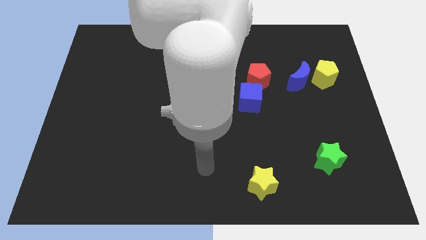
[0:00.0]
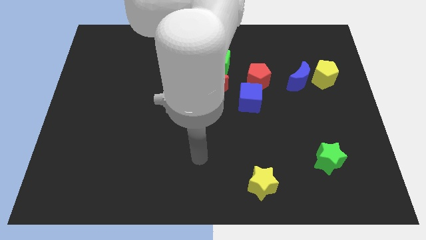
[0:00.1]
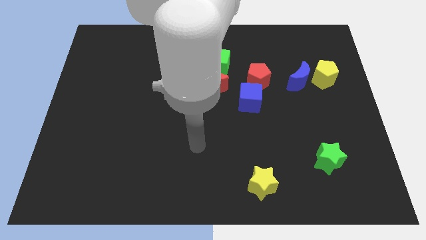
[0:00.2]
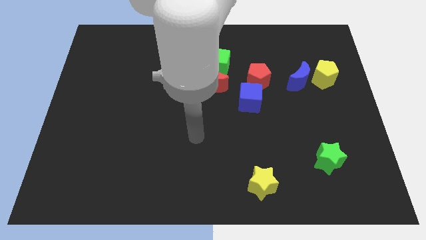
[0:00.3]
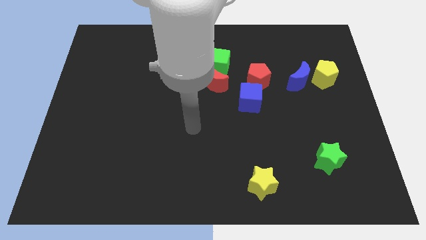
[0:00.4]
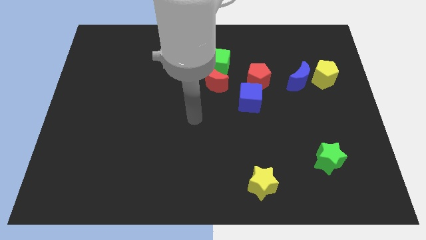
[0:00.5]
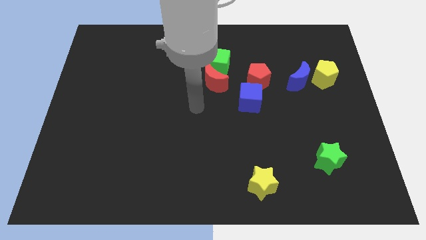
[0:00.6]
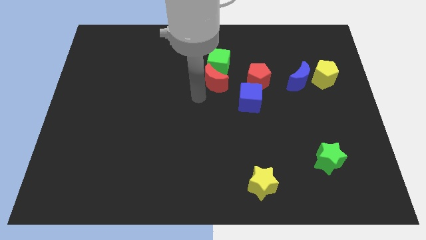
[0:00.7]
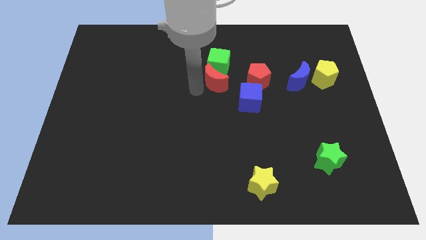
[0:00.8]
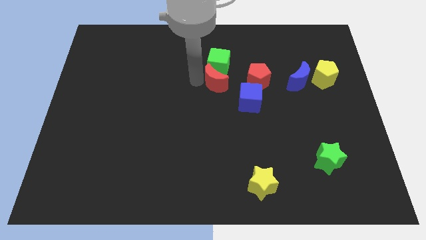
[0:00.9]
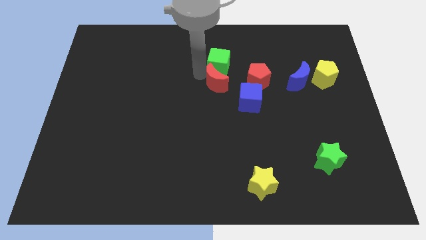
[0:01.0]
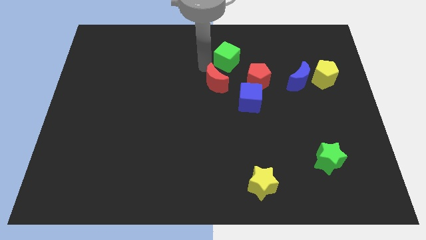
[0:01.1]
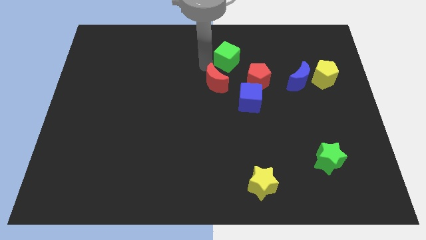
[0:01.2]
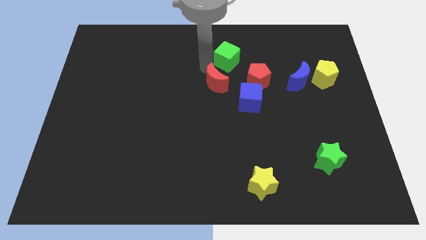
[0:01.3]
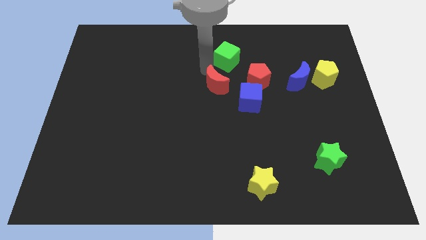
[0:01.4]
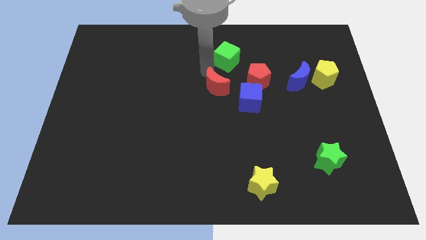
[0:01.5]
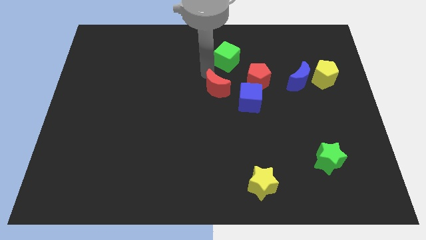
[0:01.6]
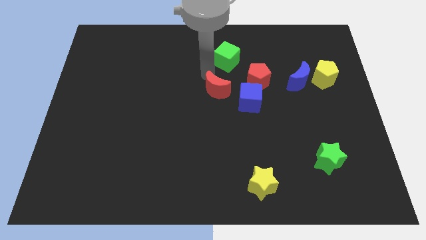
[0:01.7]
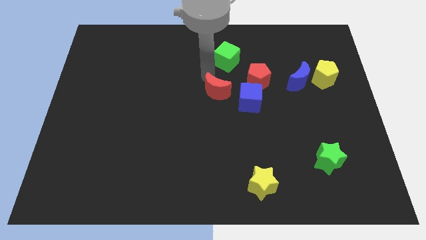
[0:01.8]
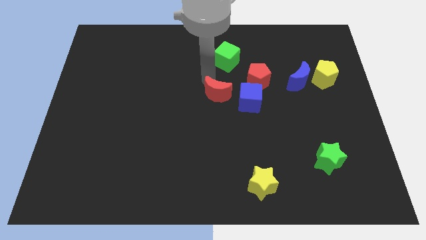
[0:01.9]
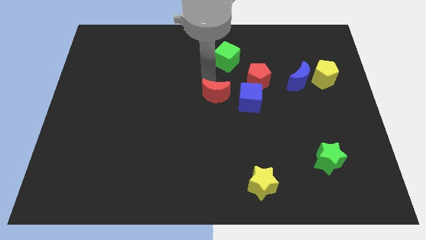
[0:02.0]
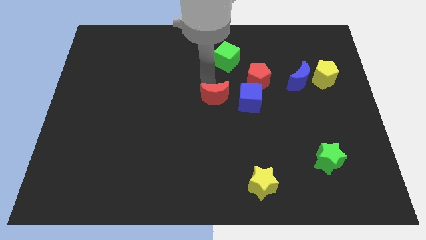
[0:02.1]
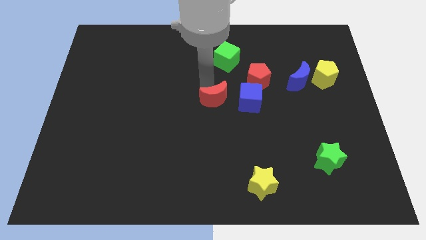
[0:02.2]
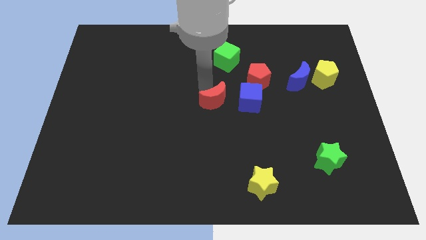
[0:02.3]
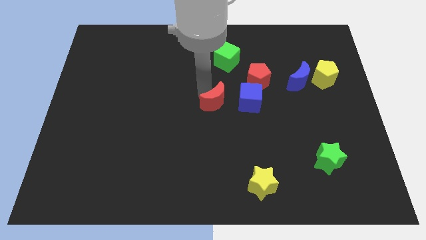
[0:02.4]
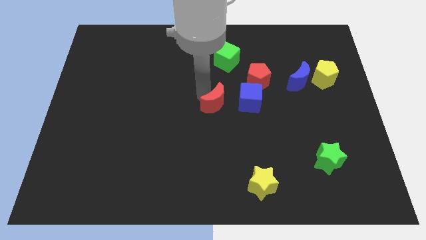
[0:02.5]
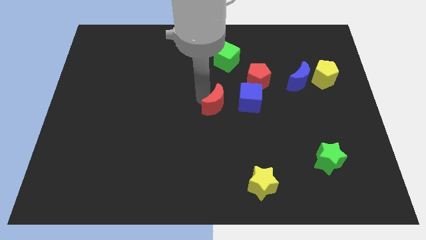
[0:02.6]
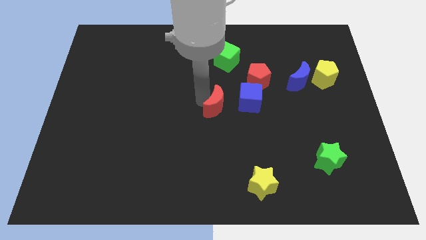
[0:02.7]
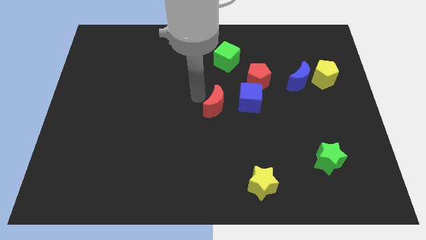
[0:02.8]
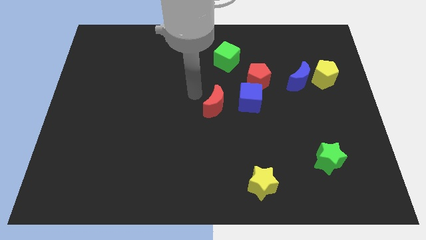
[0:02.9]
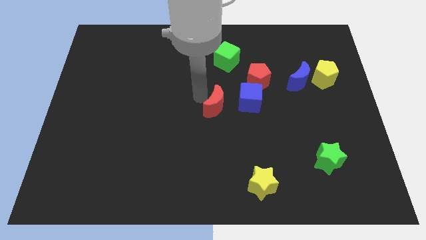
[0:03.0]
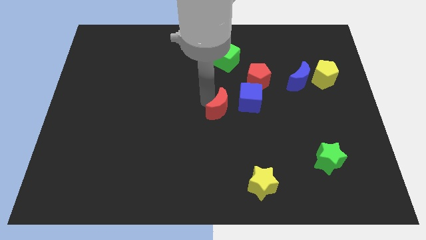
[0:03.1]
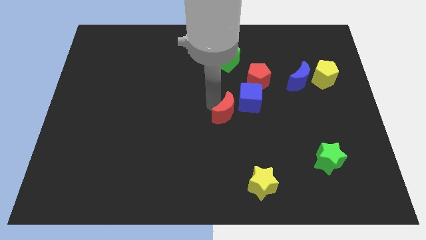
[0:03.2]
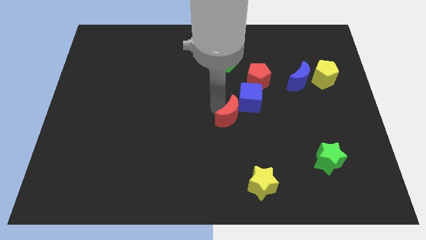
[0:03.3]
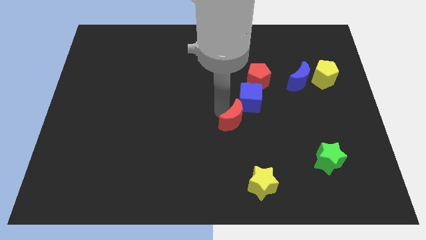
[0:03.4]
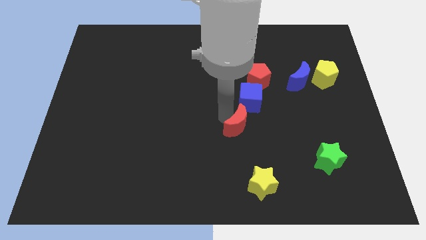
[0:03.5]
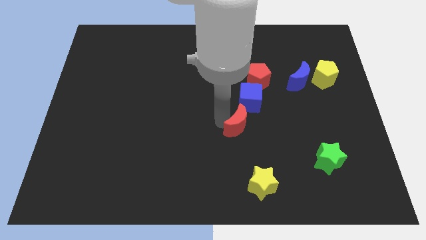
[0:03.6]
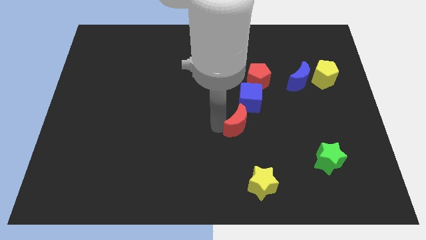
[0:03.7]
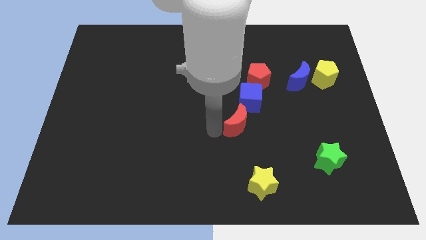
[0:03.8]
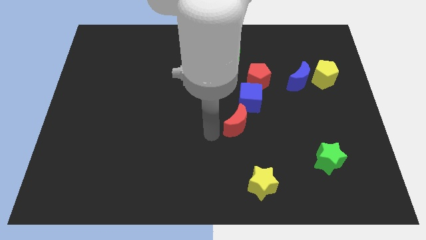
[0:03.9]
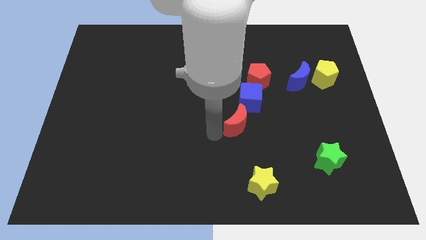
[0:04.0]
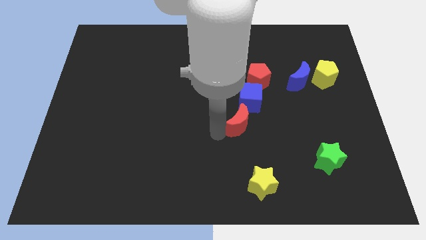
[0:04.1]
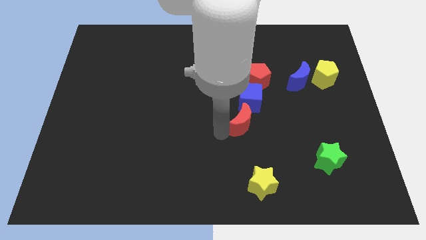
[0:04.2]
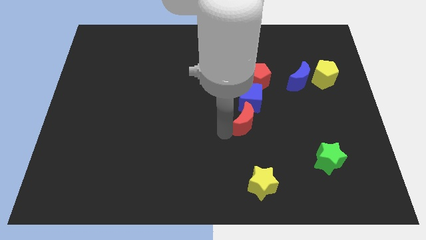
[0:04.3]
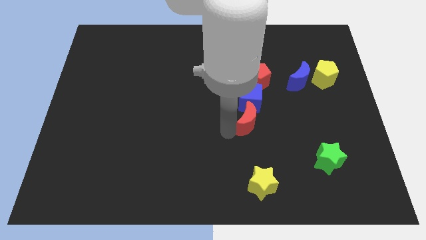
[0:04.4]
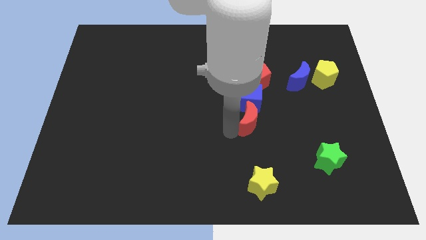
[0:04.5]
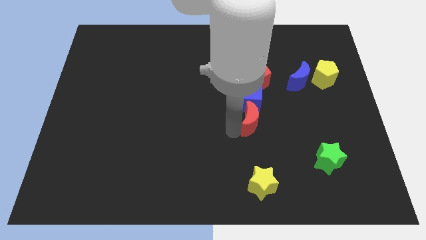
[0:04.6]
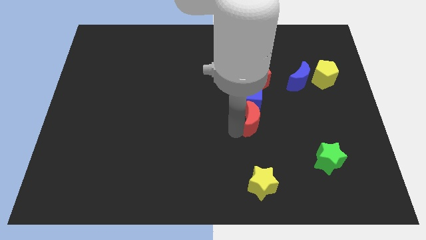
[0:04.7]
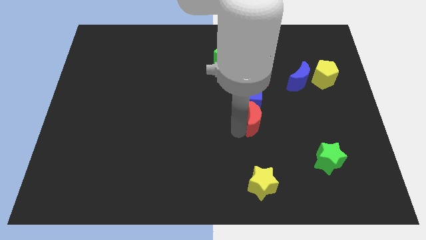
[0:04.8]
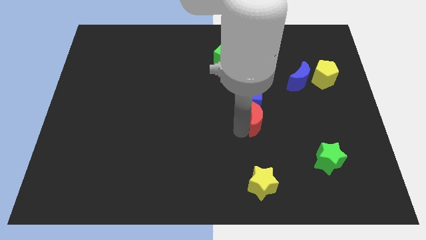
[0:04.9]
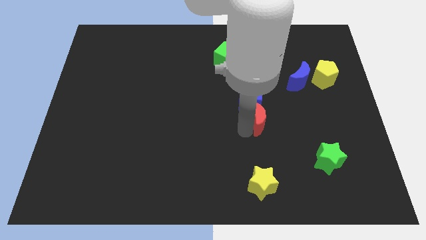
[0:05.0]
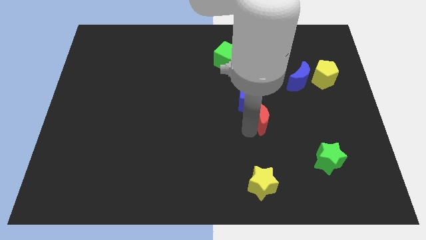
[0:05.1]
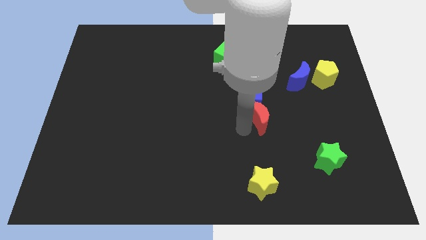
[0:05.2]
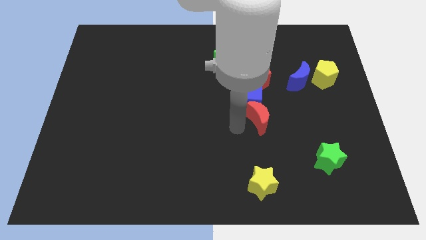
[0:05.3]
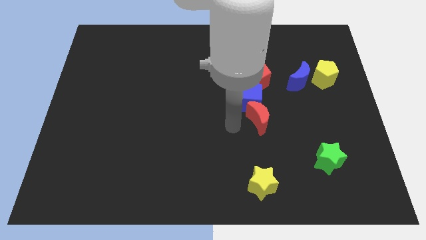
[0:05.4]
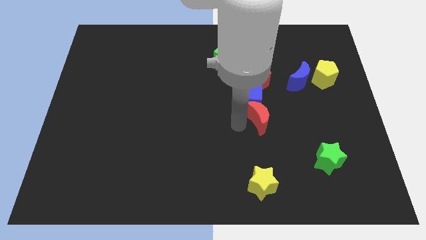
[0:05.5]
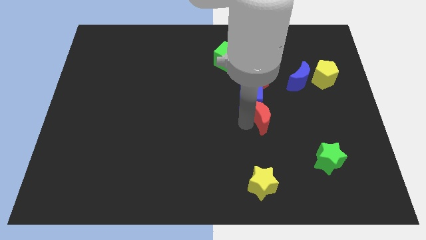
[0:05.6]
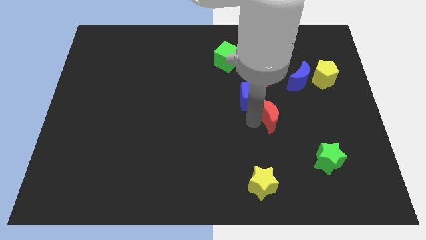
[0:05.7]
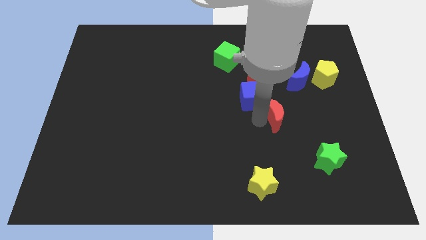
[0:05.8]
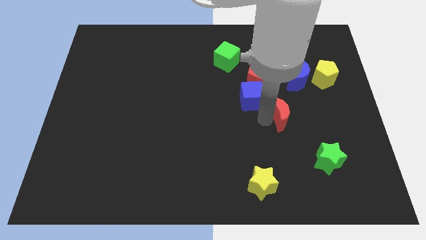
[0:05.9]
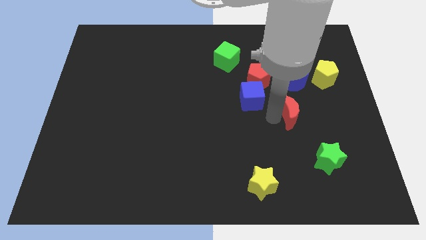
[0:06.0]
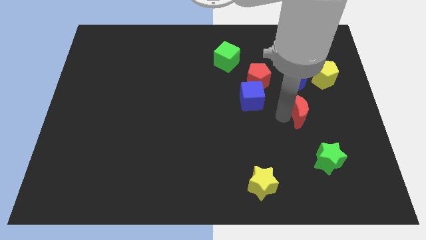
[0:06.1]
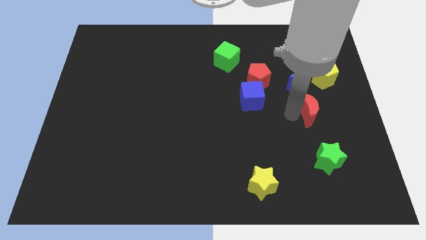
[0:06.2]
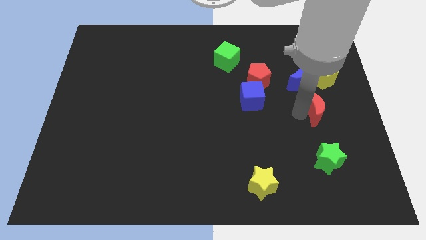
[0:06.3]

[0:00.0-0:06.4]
move the red moon to the bottom of the yellow pentagon

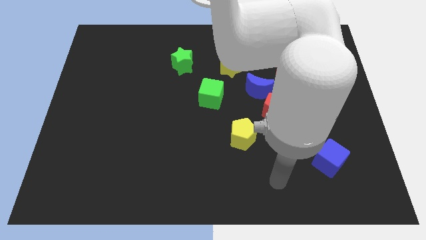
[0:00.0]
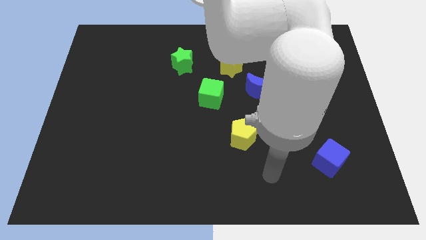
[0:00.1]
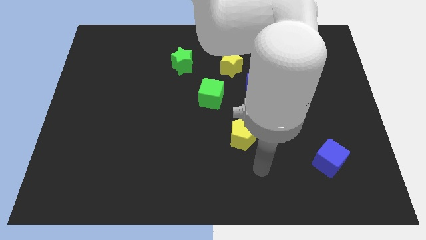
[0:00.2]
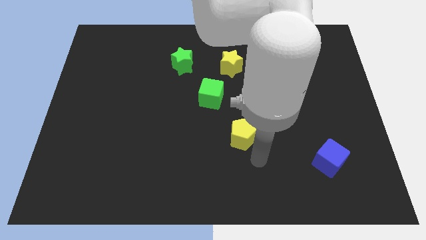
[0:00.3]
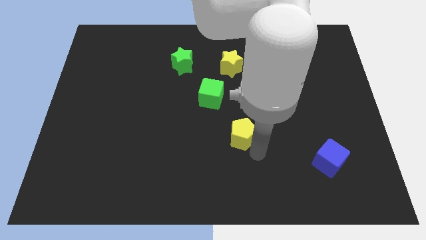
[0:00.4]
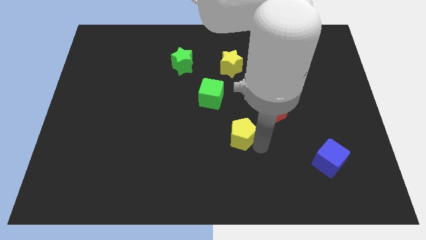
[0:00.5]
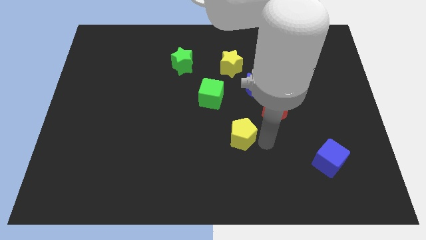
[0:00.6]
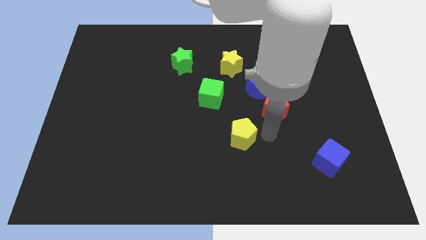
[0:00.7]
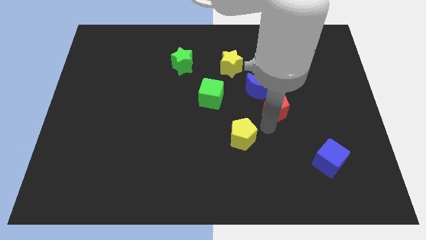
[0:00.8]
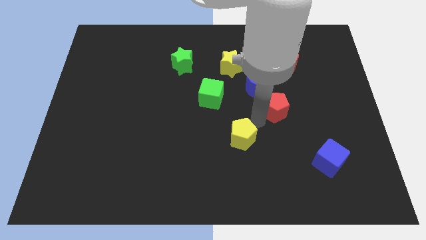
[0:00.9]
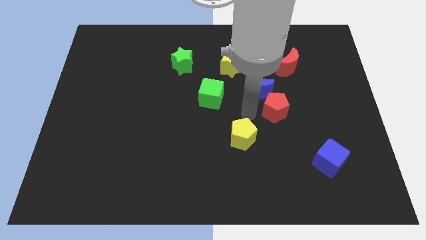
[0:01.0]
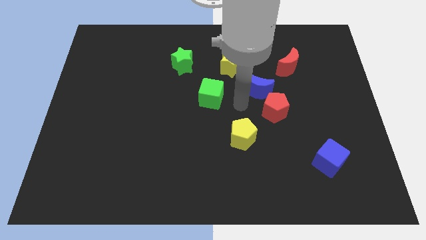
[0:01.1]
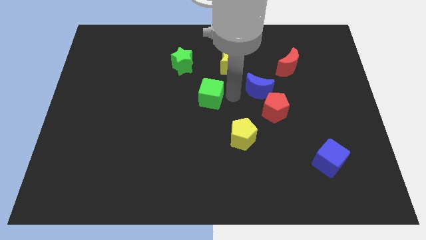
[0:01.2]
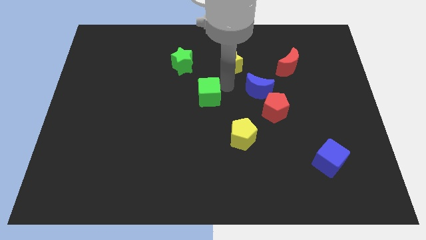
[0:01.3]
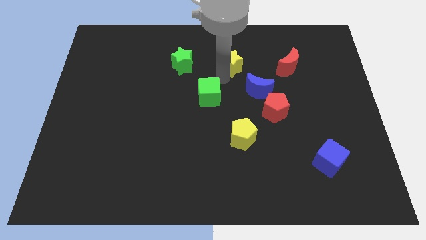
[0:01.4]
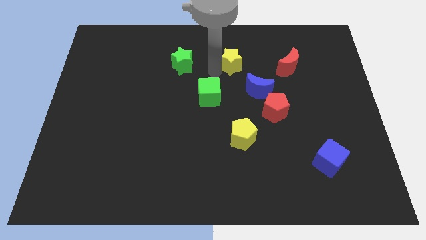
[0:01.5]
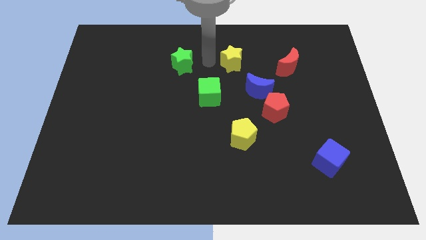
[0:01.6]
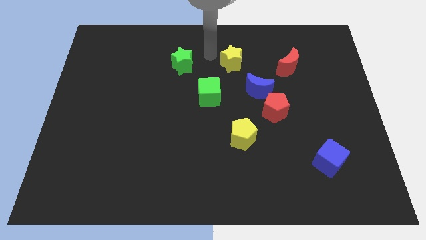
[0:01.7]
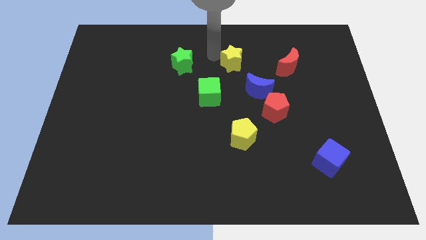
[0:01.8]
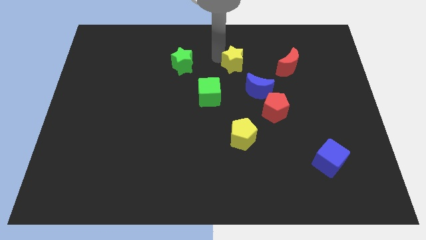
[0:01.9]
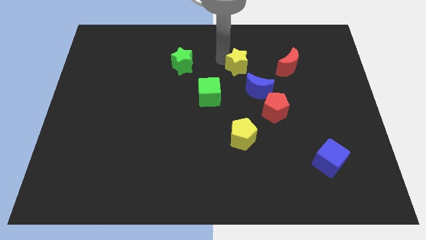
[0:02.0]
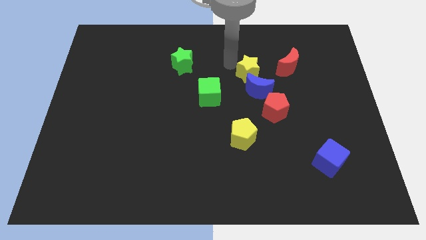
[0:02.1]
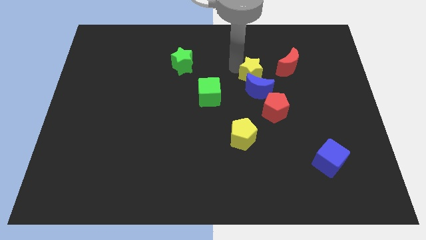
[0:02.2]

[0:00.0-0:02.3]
push the yellow star to the top right of the blue moon
